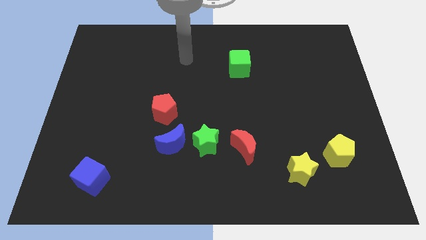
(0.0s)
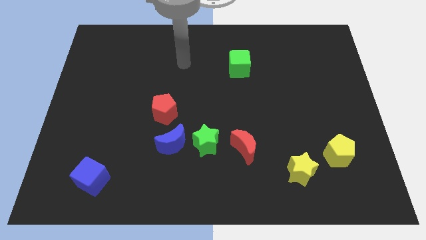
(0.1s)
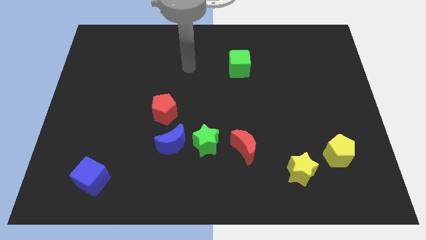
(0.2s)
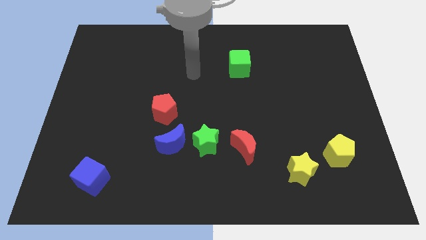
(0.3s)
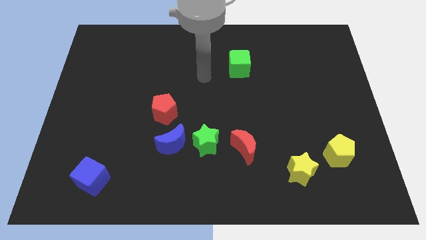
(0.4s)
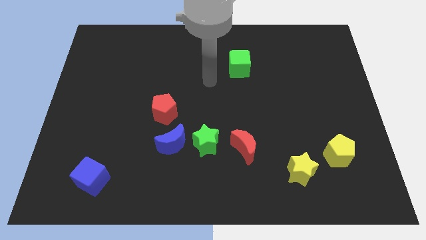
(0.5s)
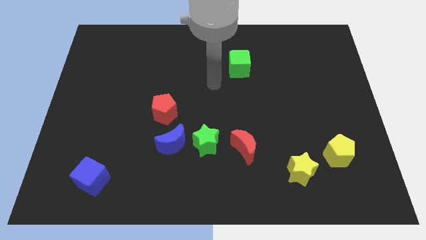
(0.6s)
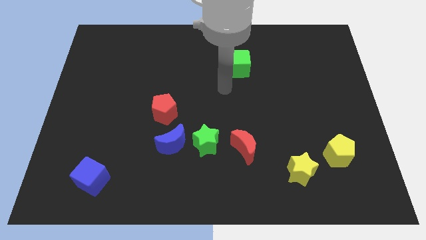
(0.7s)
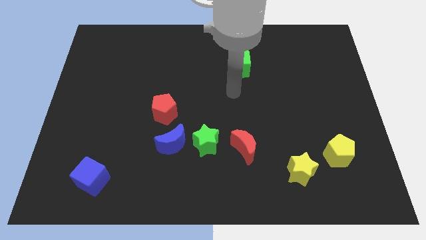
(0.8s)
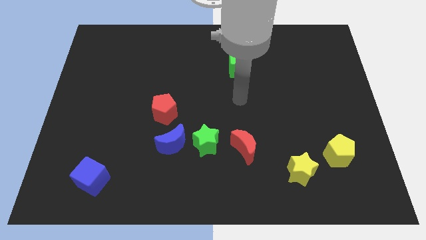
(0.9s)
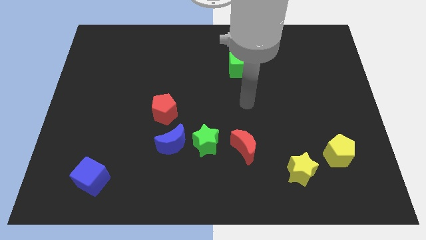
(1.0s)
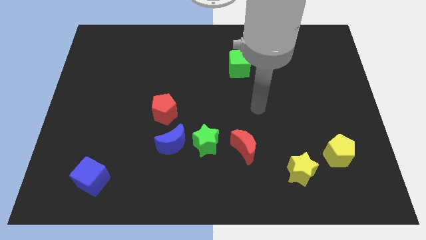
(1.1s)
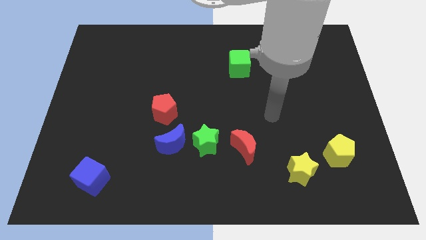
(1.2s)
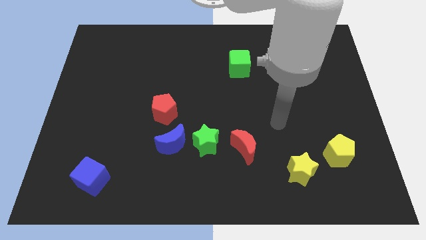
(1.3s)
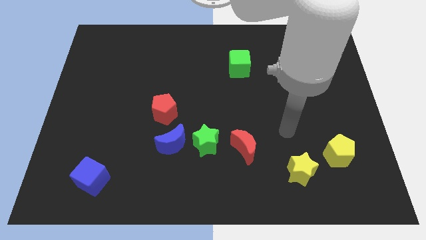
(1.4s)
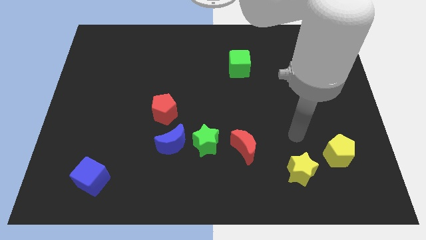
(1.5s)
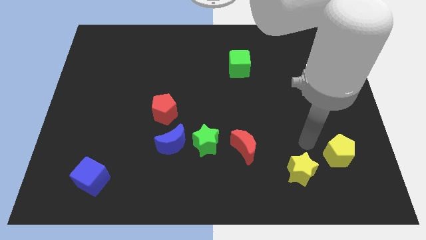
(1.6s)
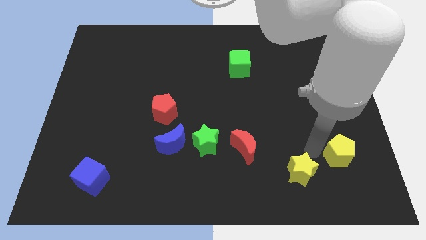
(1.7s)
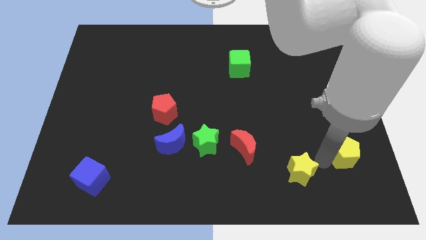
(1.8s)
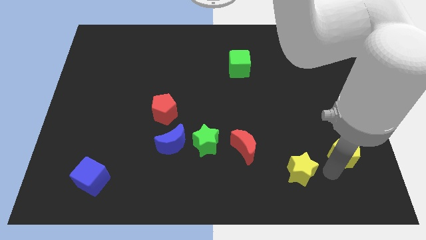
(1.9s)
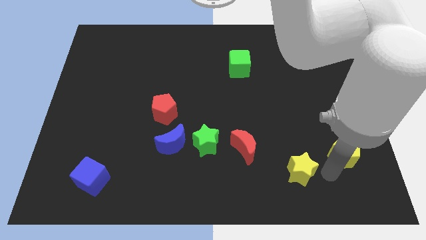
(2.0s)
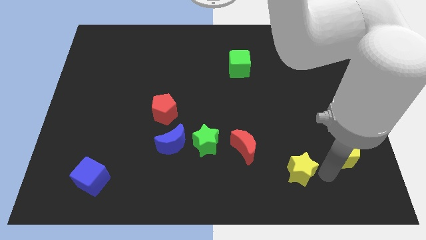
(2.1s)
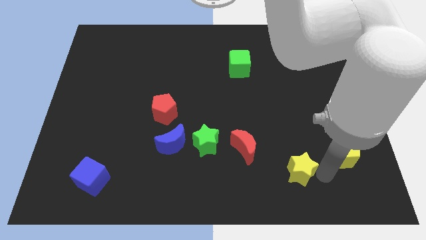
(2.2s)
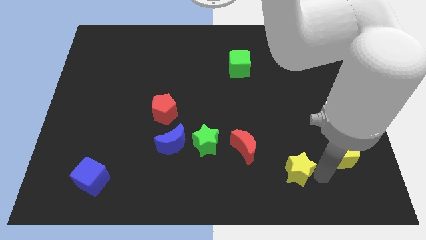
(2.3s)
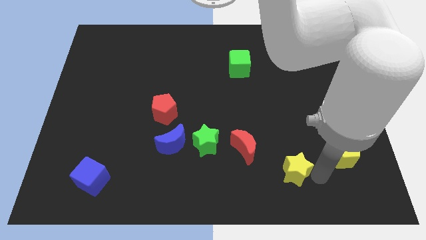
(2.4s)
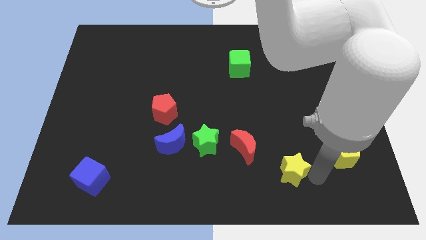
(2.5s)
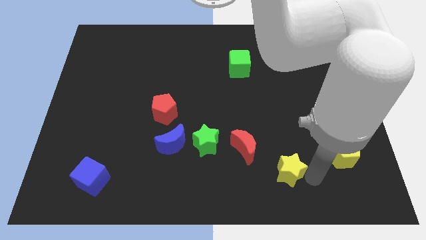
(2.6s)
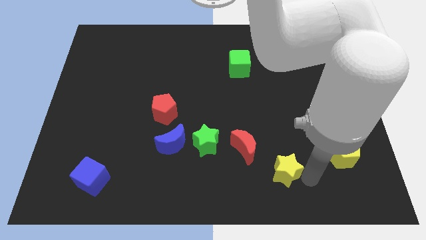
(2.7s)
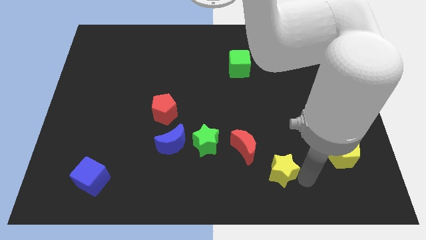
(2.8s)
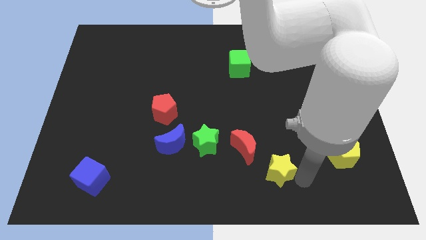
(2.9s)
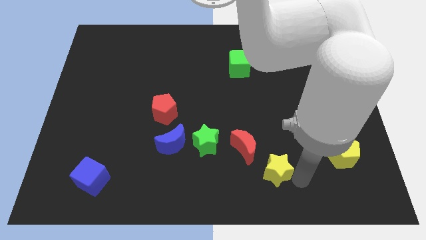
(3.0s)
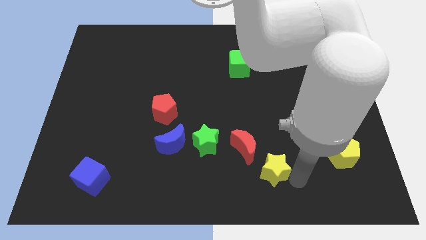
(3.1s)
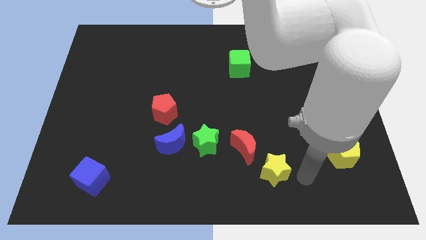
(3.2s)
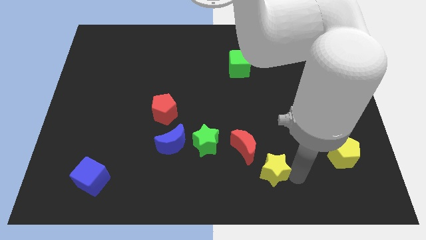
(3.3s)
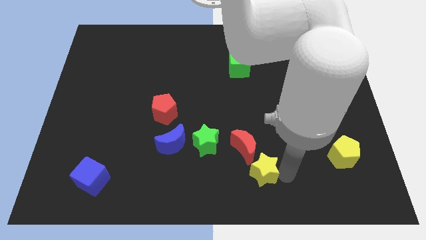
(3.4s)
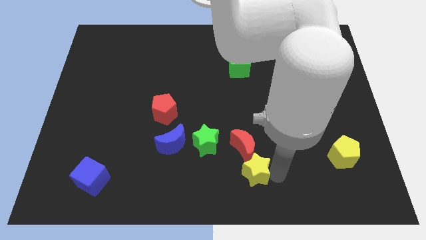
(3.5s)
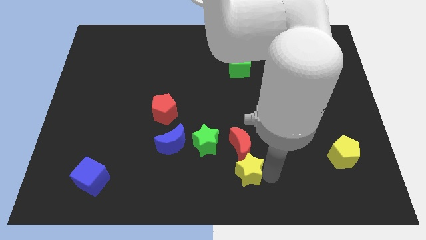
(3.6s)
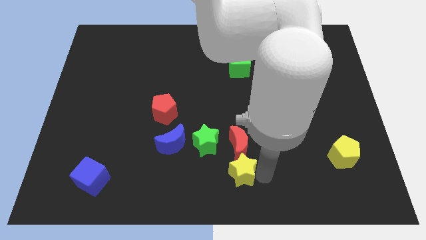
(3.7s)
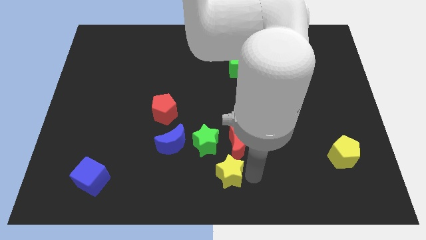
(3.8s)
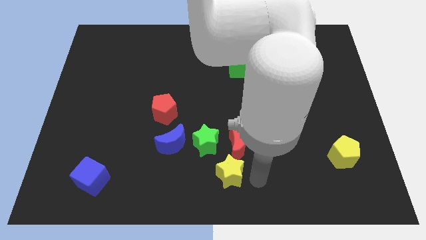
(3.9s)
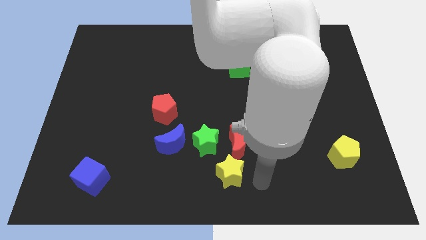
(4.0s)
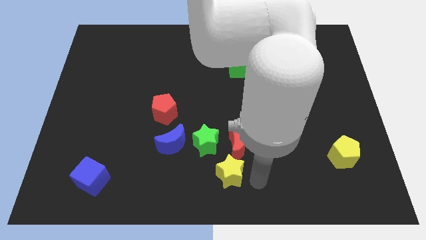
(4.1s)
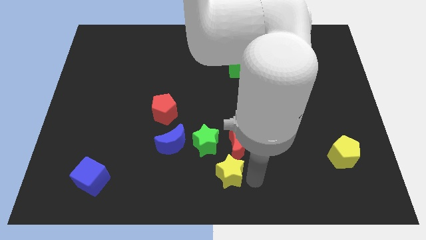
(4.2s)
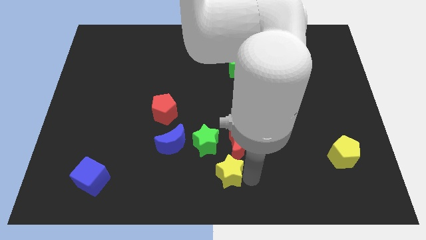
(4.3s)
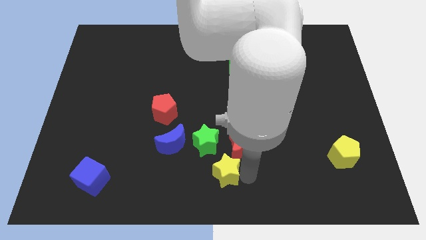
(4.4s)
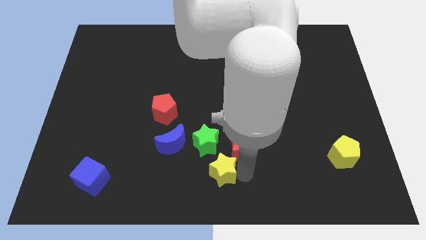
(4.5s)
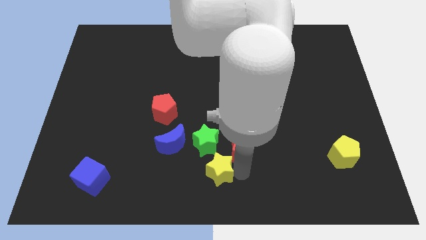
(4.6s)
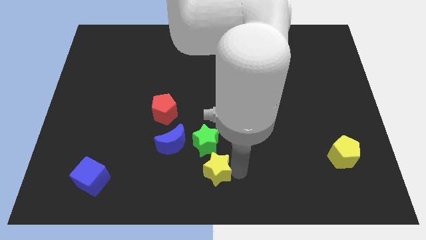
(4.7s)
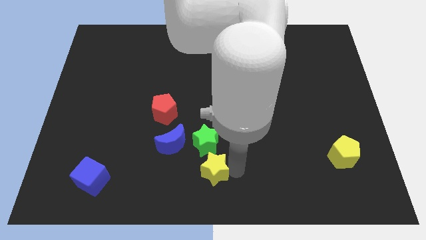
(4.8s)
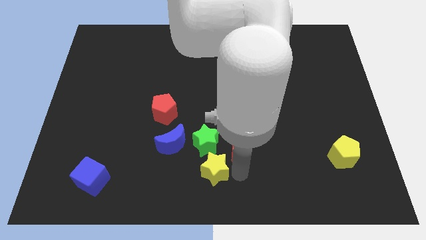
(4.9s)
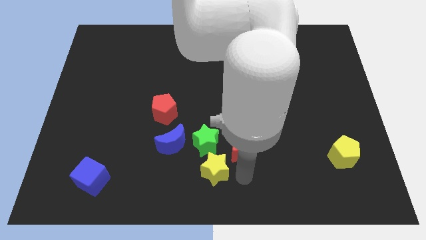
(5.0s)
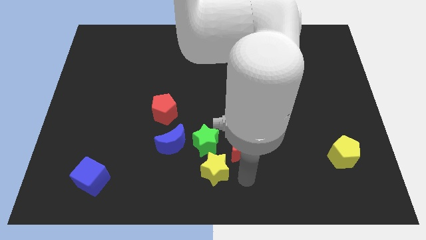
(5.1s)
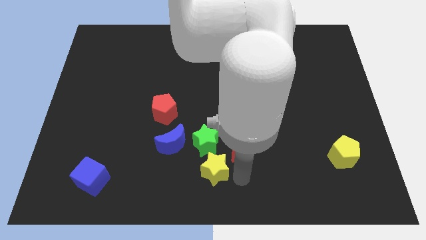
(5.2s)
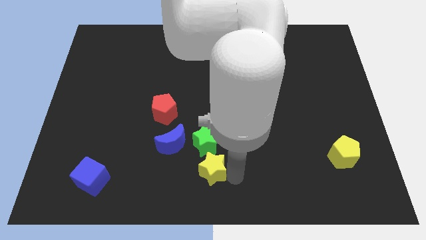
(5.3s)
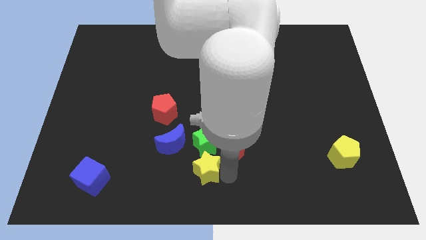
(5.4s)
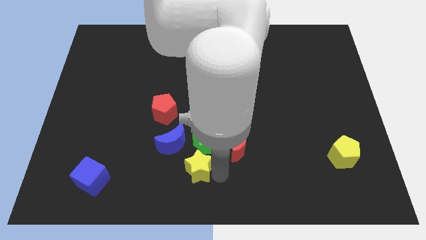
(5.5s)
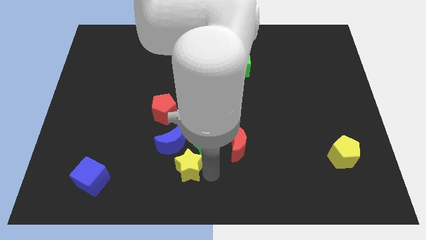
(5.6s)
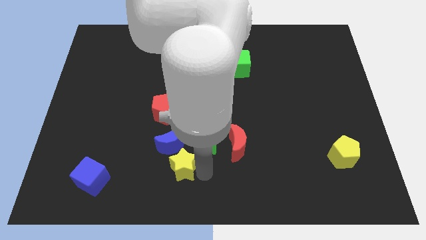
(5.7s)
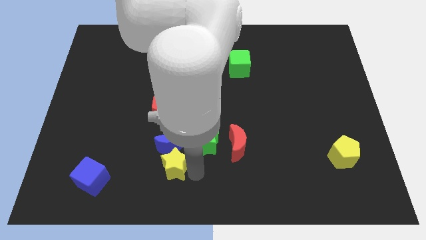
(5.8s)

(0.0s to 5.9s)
move the yellow star to the bottom side of the red pentagon

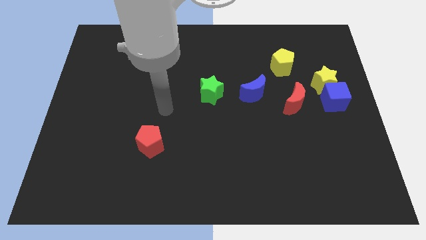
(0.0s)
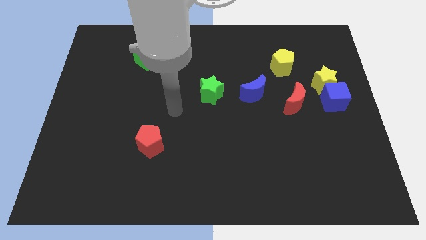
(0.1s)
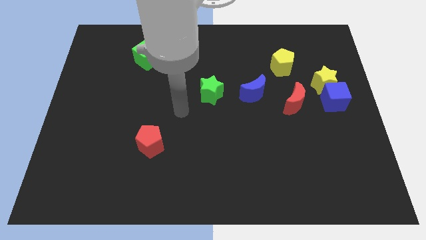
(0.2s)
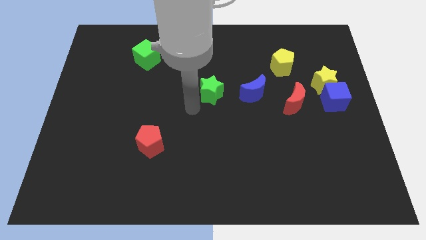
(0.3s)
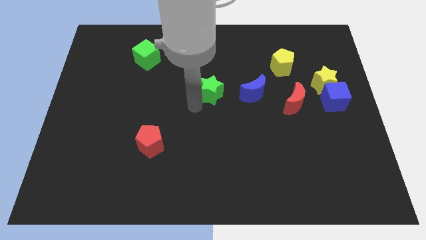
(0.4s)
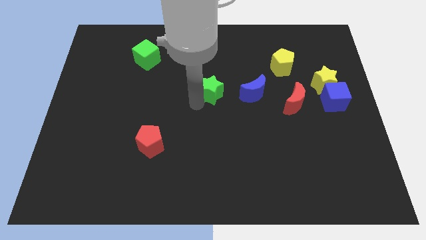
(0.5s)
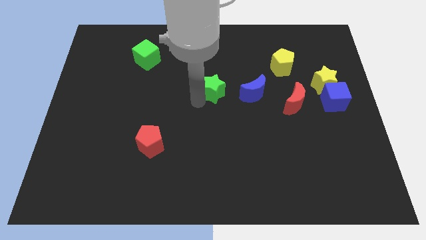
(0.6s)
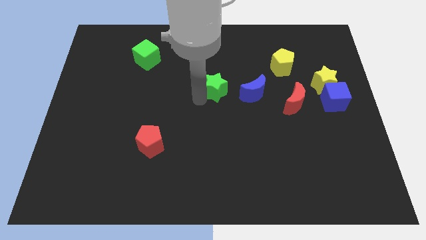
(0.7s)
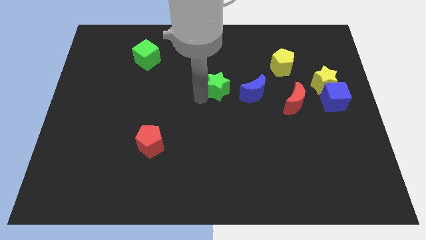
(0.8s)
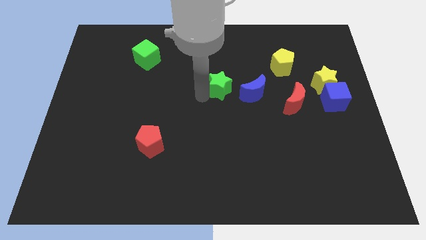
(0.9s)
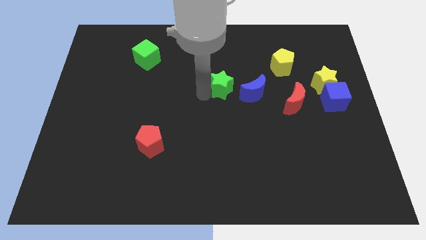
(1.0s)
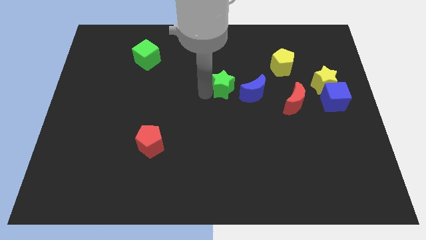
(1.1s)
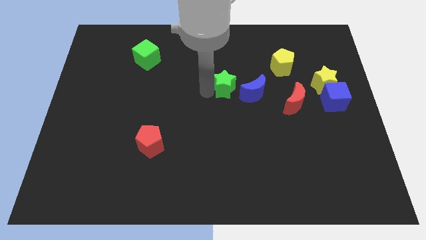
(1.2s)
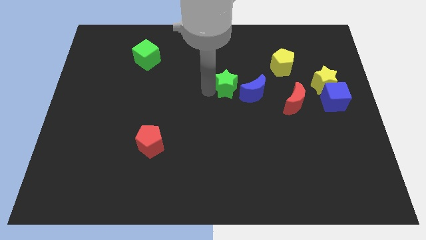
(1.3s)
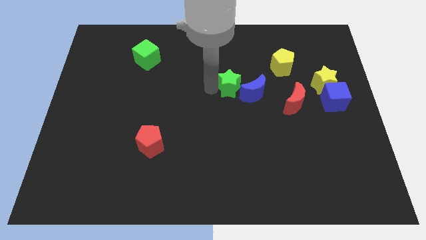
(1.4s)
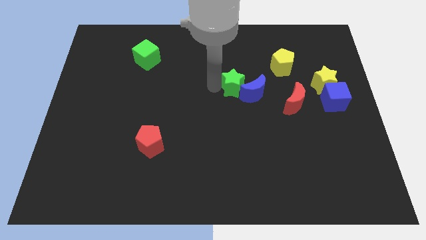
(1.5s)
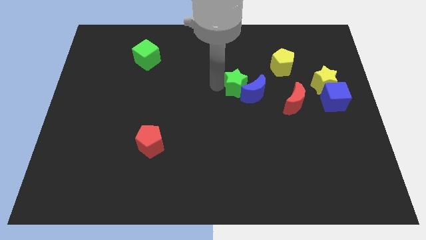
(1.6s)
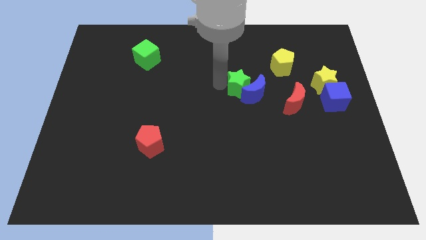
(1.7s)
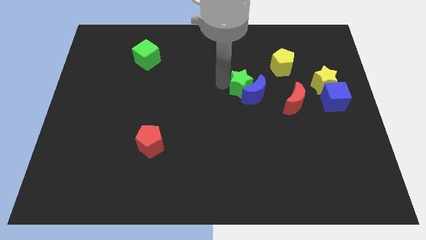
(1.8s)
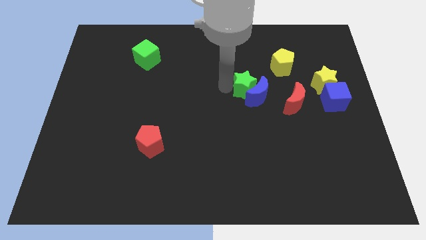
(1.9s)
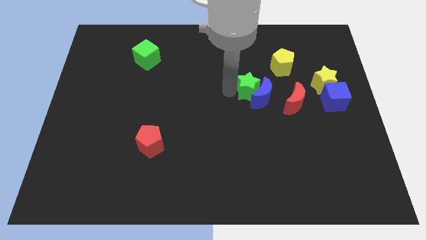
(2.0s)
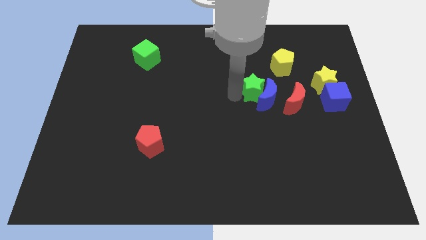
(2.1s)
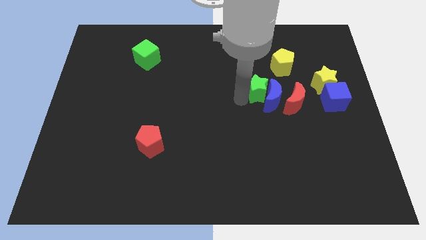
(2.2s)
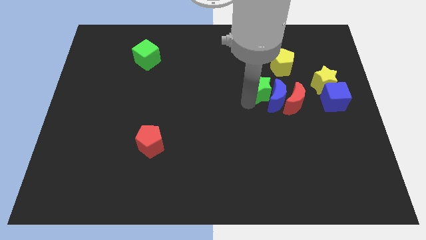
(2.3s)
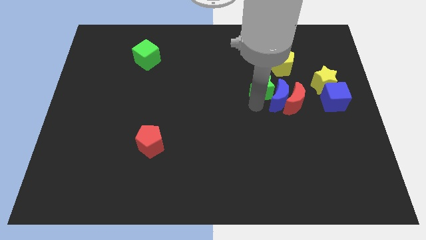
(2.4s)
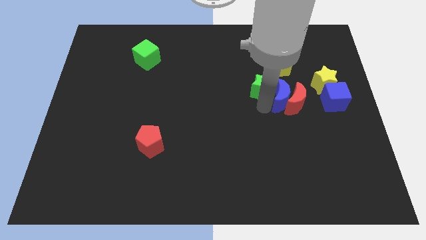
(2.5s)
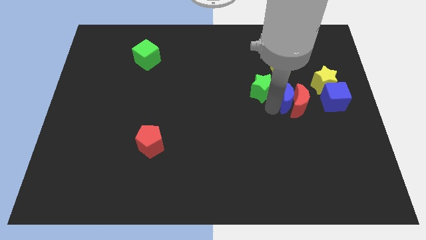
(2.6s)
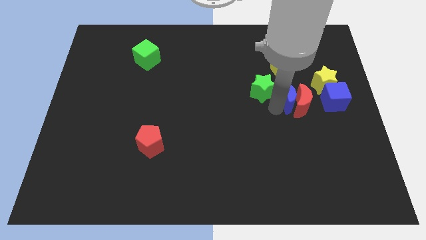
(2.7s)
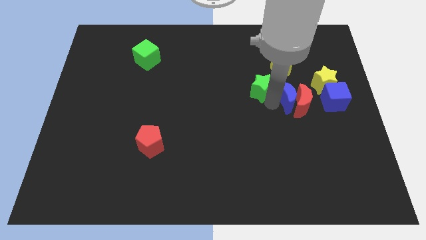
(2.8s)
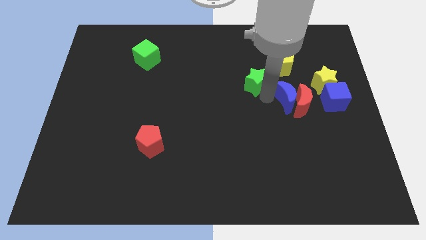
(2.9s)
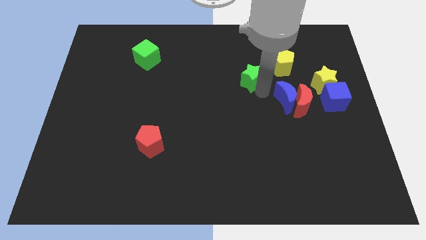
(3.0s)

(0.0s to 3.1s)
push the green star just left of the yellow pentagon
